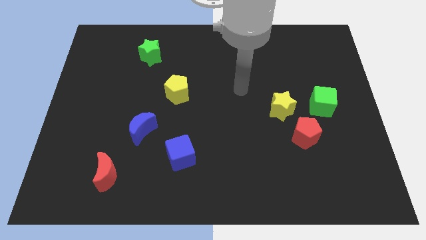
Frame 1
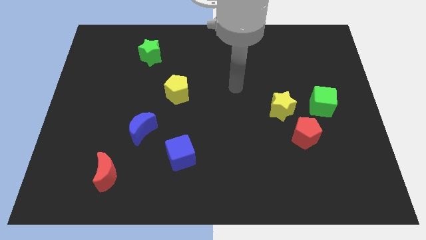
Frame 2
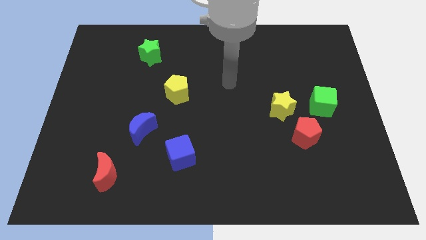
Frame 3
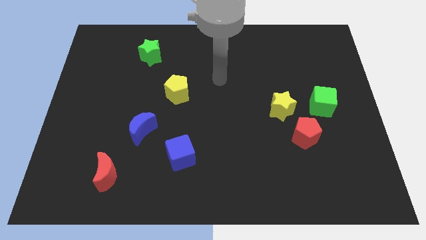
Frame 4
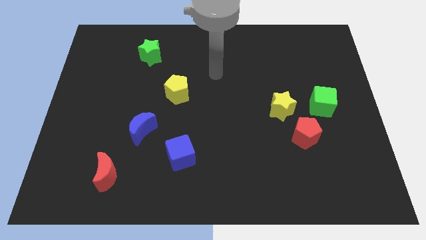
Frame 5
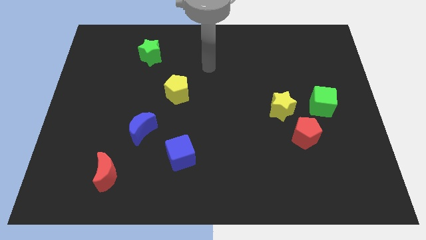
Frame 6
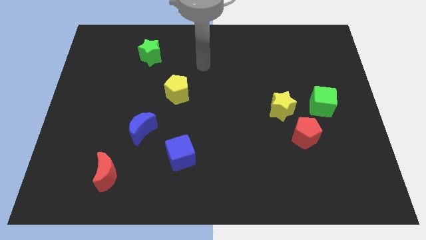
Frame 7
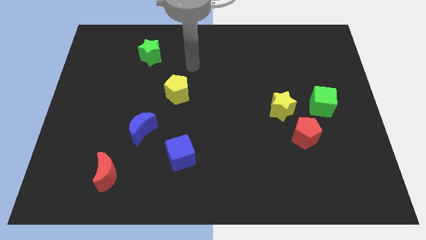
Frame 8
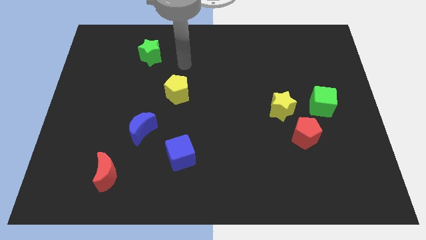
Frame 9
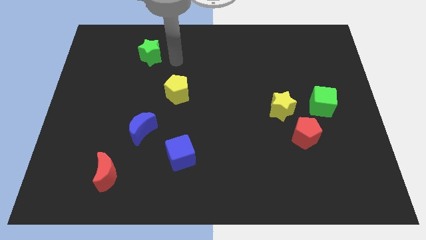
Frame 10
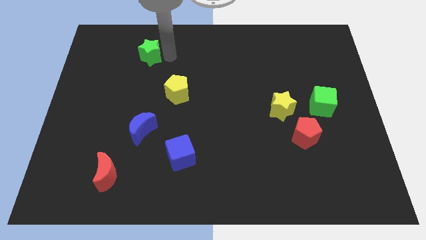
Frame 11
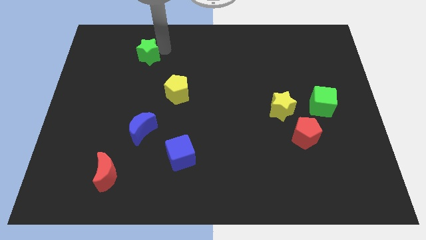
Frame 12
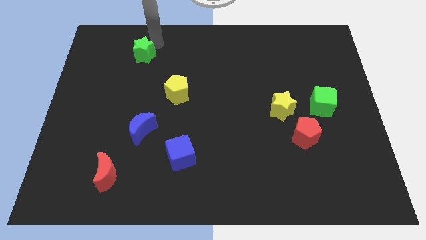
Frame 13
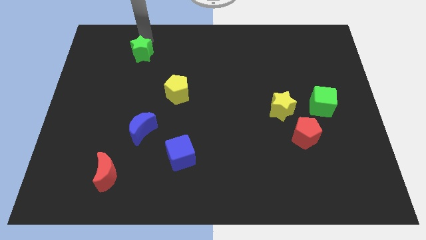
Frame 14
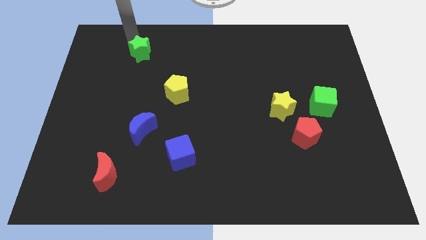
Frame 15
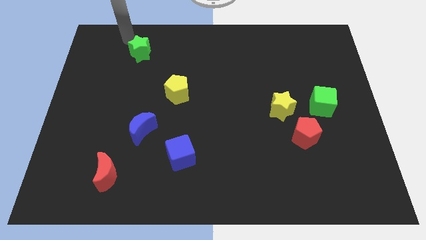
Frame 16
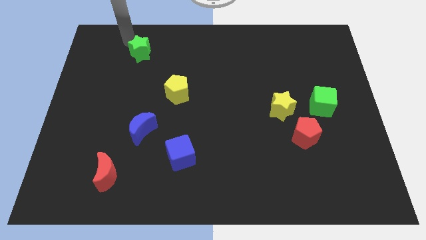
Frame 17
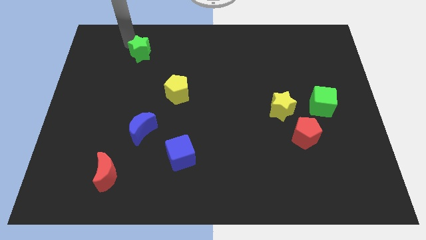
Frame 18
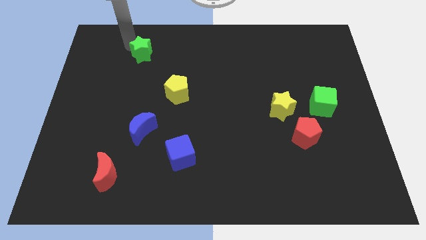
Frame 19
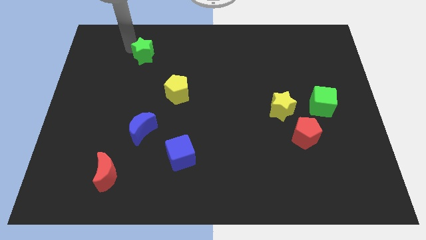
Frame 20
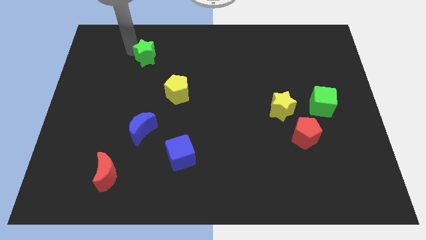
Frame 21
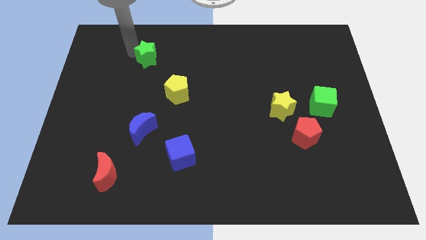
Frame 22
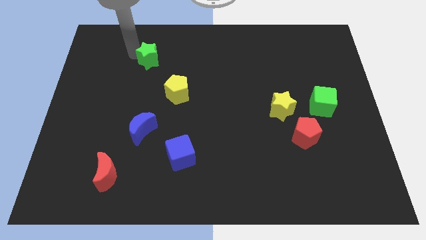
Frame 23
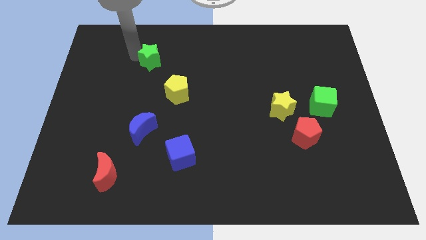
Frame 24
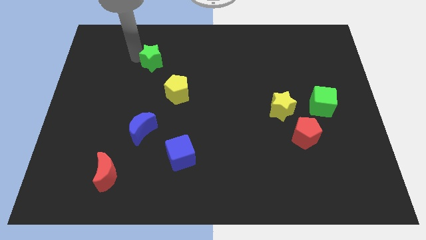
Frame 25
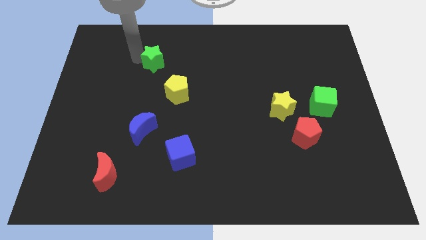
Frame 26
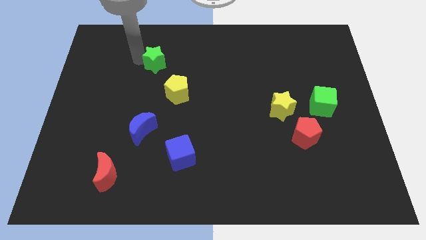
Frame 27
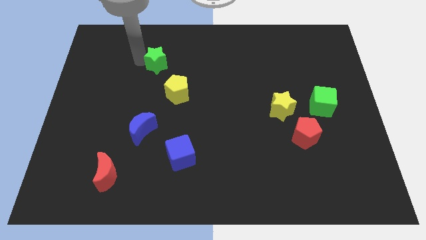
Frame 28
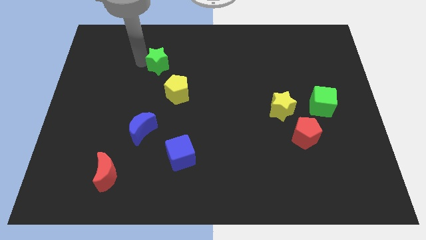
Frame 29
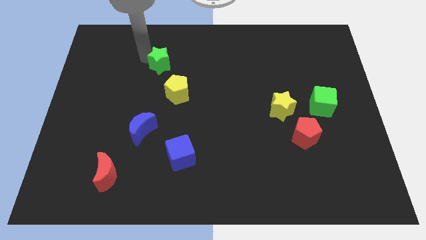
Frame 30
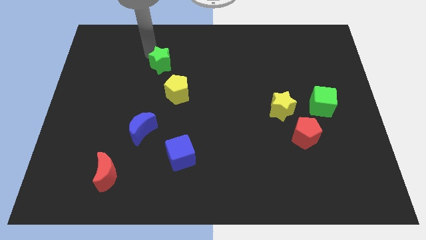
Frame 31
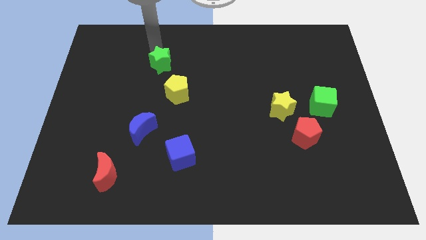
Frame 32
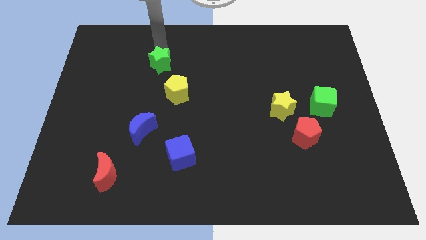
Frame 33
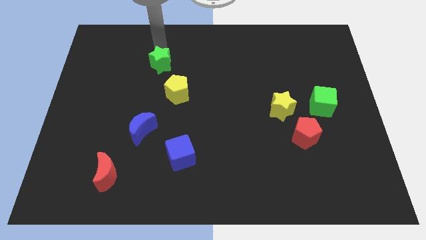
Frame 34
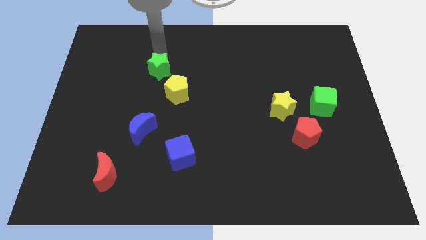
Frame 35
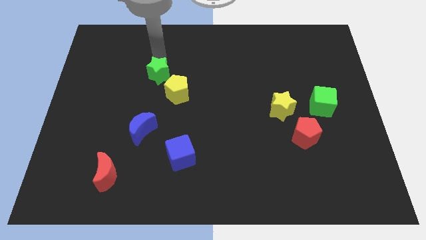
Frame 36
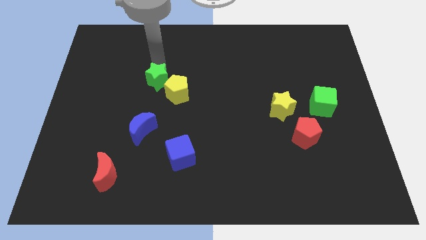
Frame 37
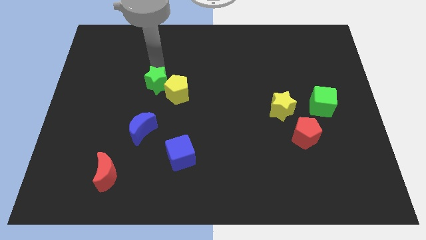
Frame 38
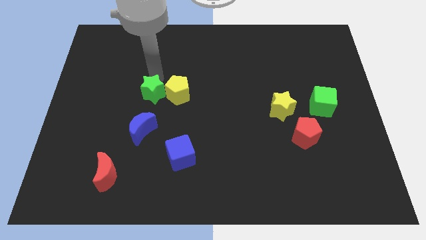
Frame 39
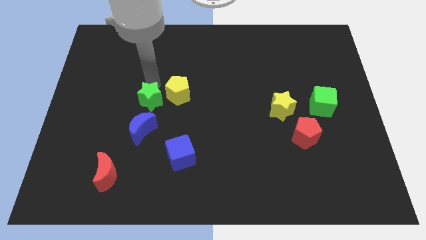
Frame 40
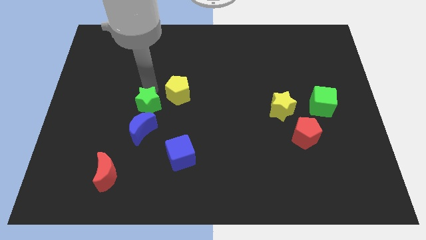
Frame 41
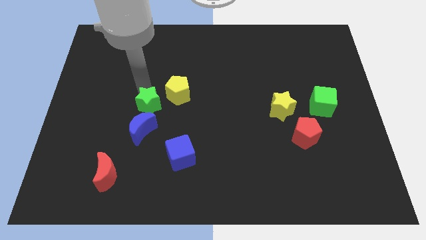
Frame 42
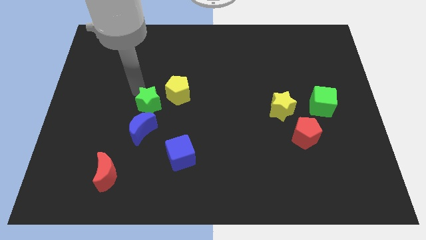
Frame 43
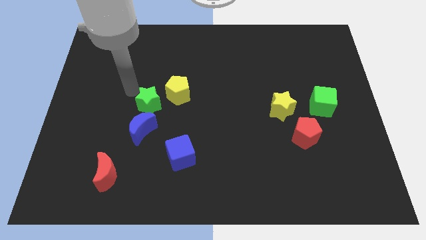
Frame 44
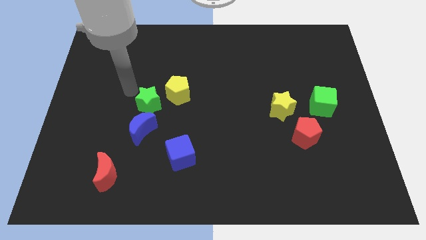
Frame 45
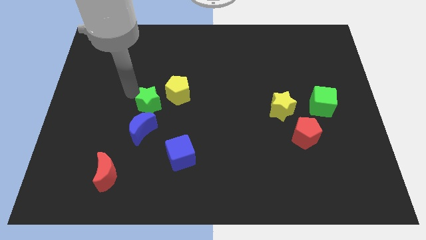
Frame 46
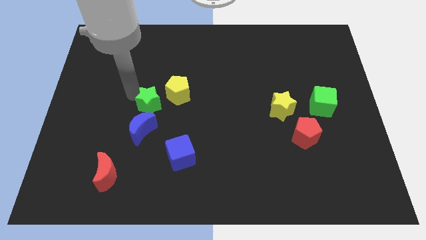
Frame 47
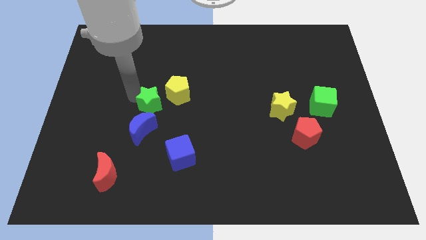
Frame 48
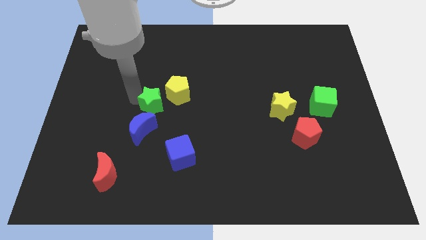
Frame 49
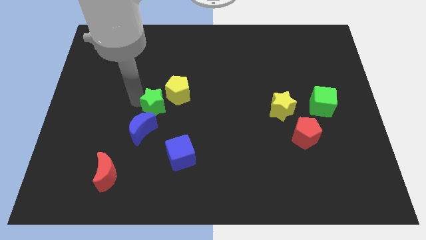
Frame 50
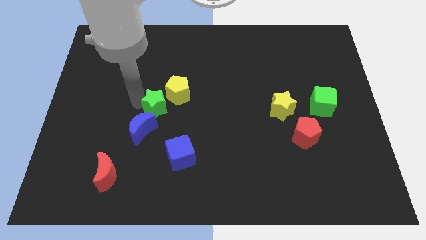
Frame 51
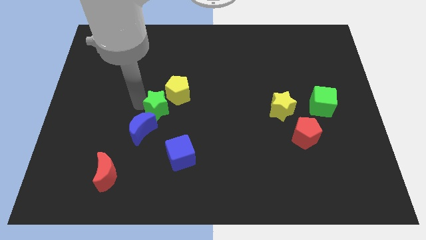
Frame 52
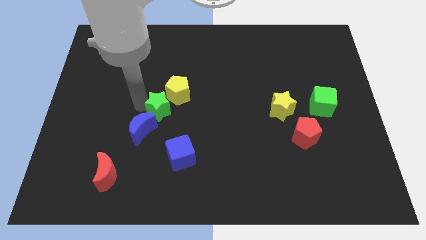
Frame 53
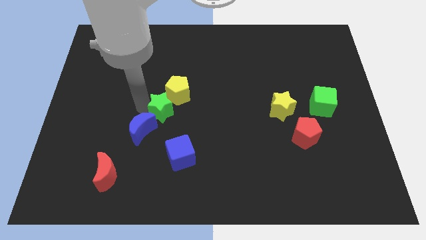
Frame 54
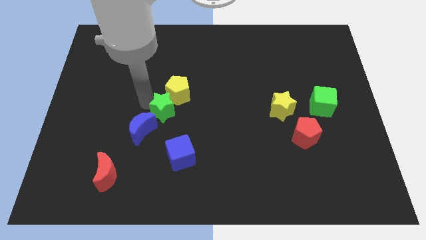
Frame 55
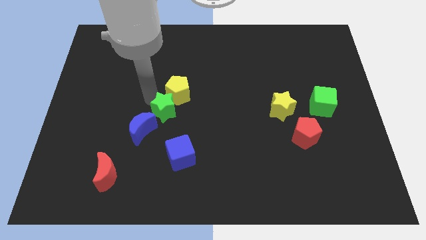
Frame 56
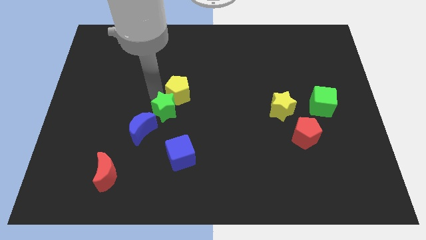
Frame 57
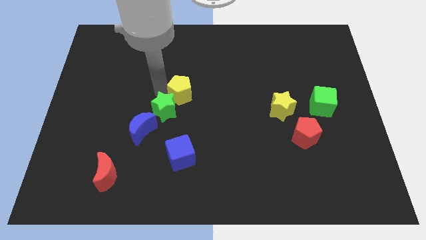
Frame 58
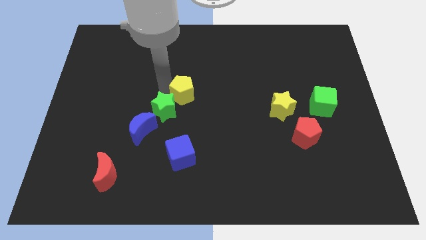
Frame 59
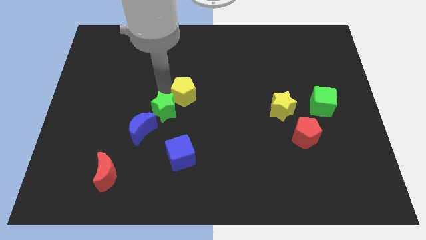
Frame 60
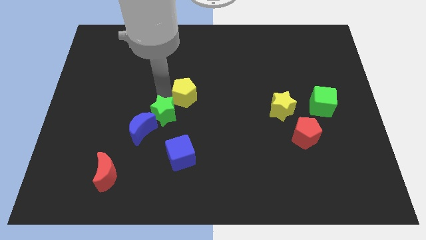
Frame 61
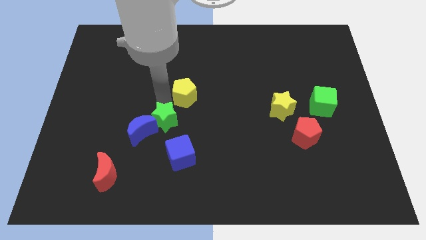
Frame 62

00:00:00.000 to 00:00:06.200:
push the green star downwards

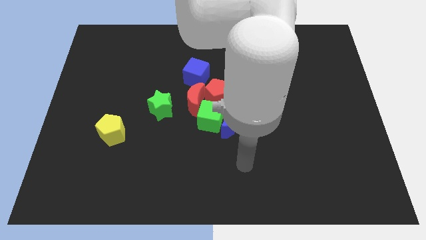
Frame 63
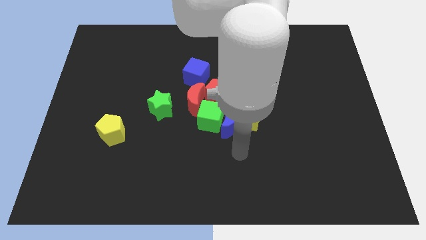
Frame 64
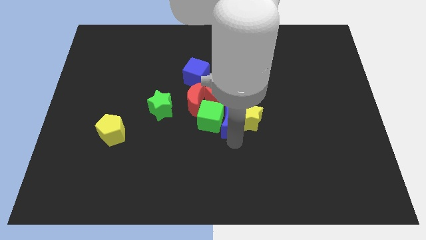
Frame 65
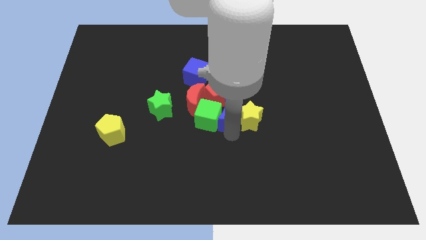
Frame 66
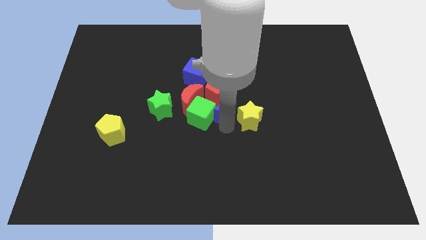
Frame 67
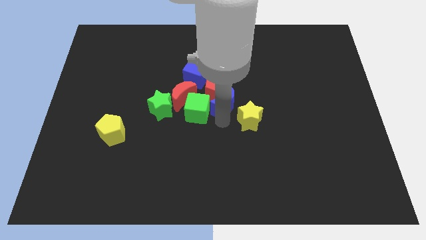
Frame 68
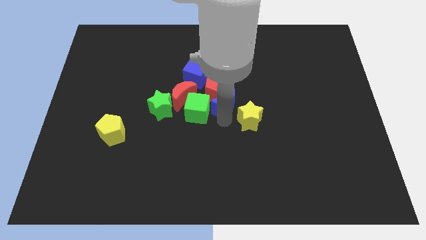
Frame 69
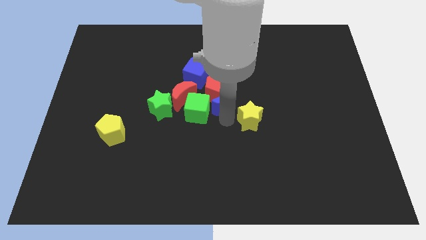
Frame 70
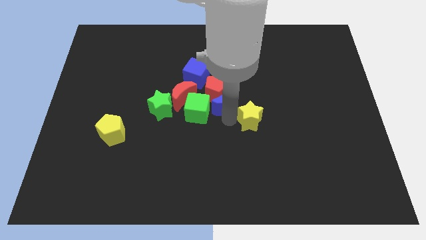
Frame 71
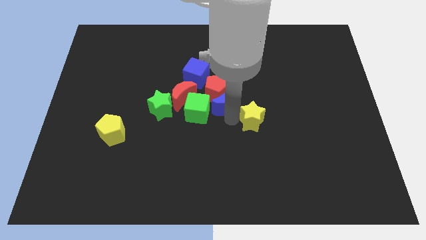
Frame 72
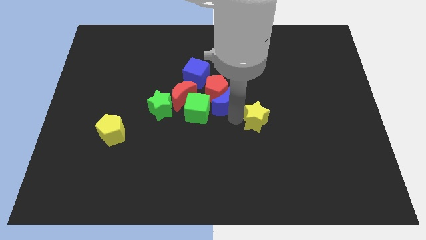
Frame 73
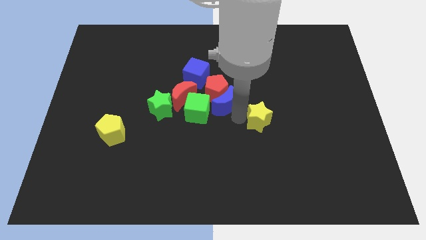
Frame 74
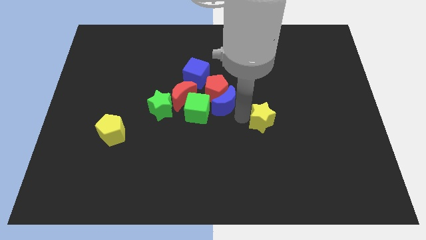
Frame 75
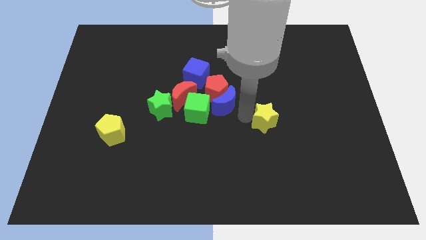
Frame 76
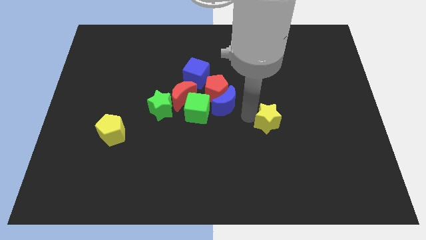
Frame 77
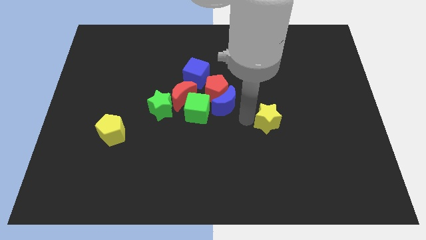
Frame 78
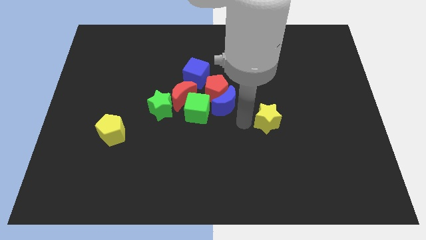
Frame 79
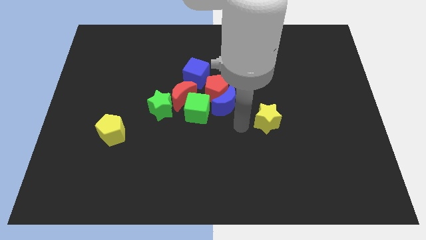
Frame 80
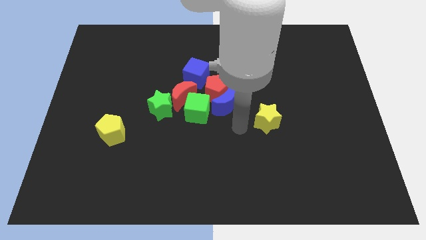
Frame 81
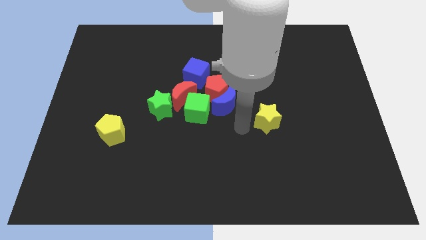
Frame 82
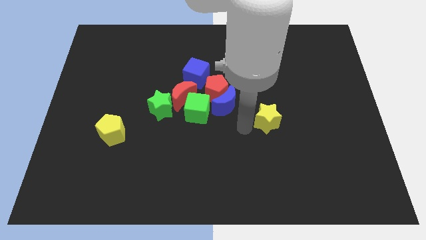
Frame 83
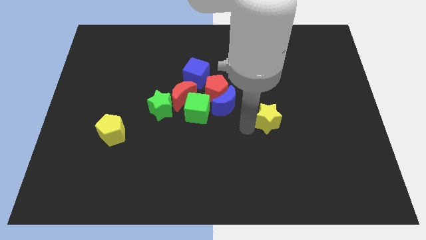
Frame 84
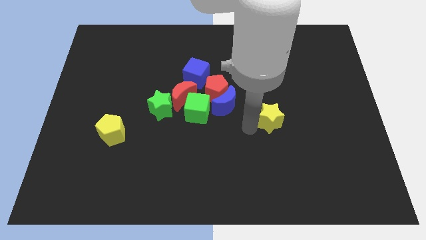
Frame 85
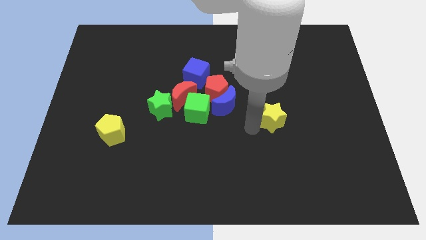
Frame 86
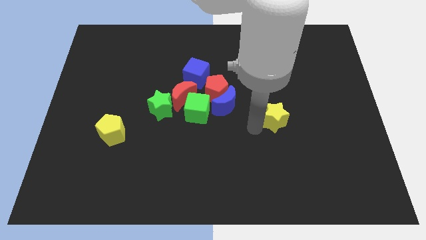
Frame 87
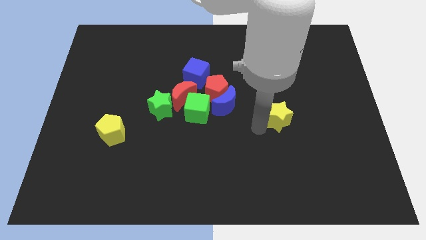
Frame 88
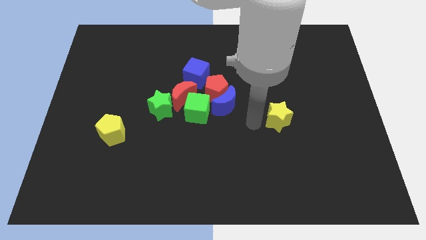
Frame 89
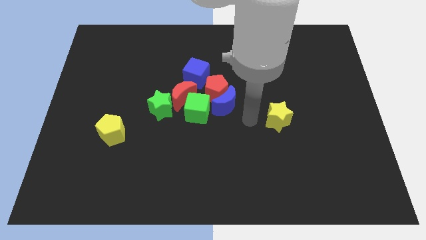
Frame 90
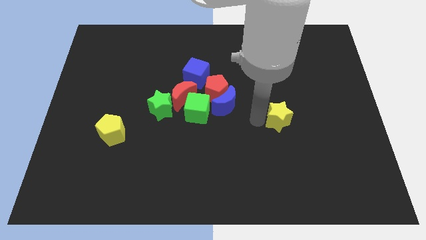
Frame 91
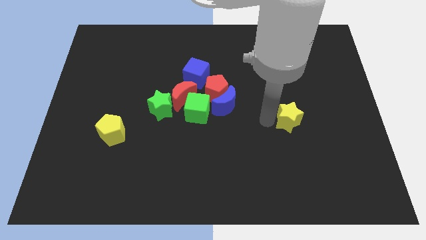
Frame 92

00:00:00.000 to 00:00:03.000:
push the yellow star a bit to the right
